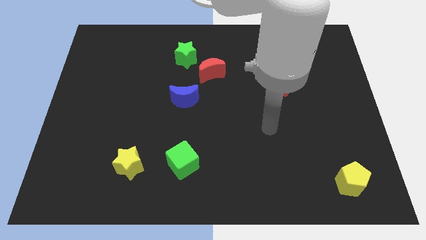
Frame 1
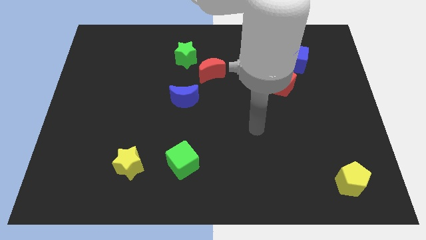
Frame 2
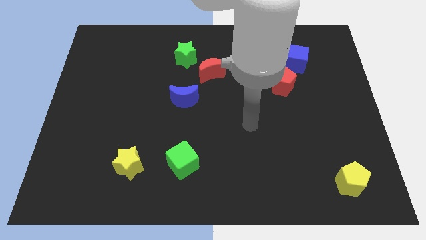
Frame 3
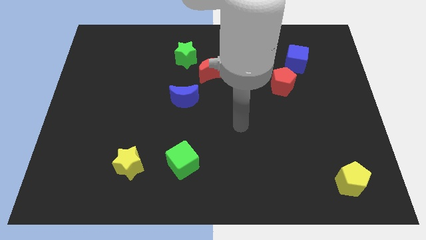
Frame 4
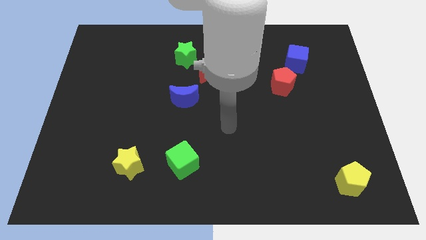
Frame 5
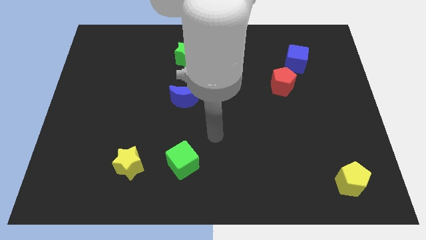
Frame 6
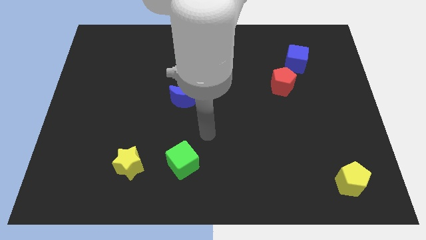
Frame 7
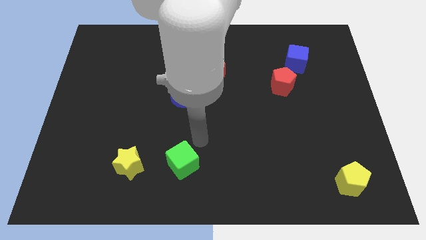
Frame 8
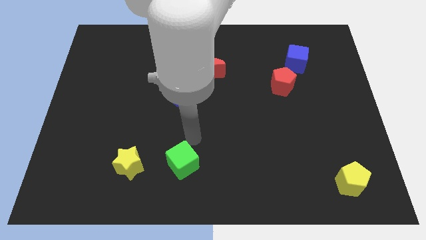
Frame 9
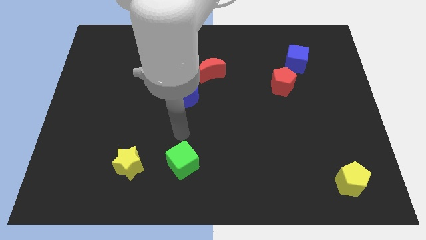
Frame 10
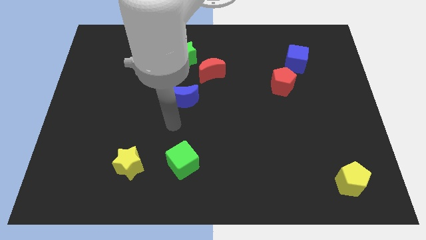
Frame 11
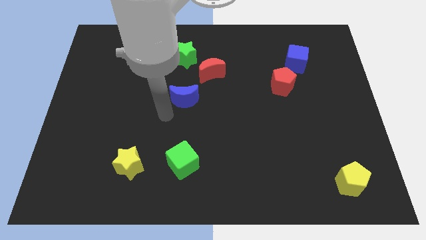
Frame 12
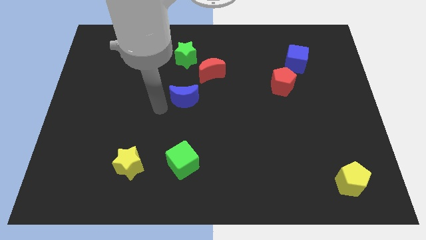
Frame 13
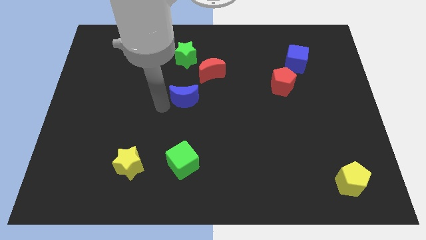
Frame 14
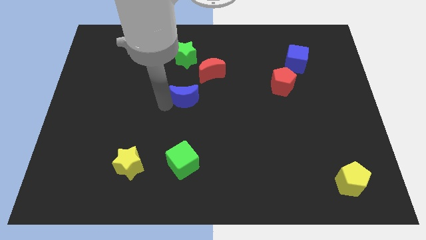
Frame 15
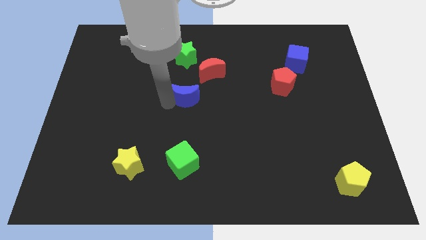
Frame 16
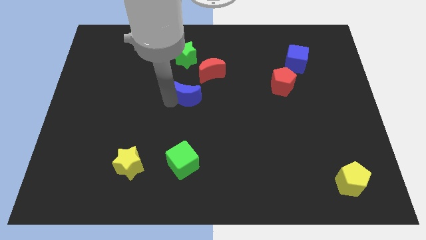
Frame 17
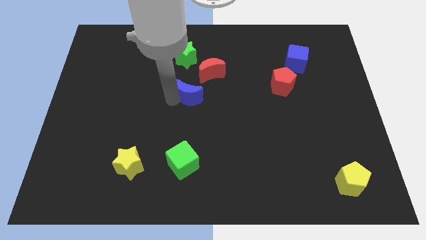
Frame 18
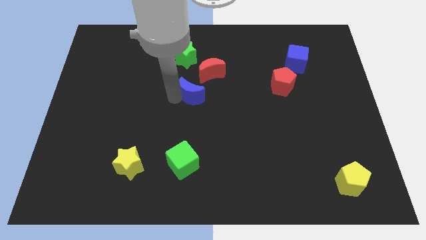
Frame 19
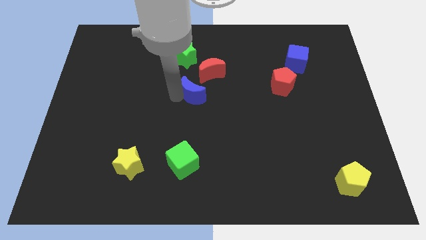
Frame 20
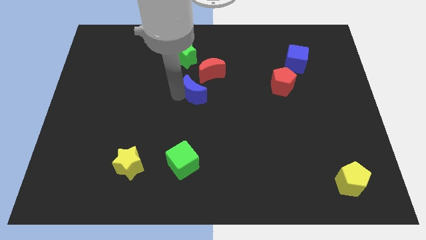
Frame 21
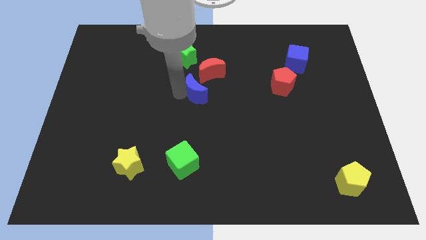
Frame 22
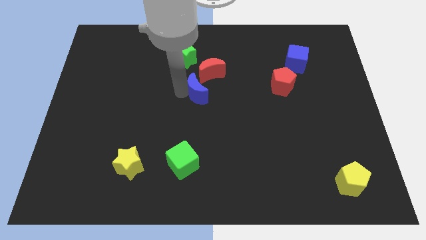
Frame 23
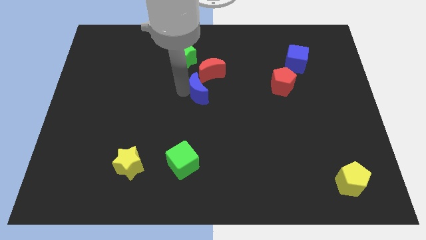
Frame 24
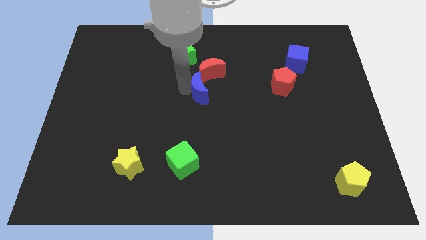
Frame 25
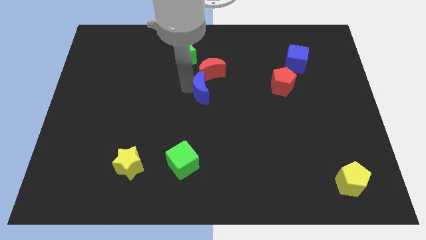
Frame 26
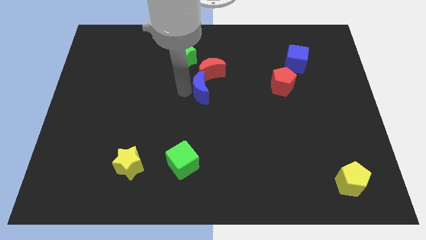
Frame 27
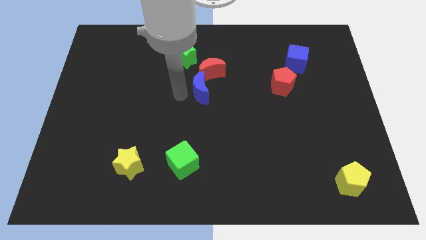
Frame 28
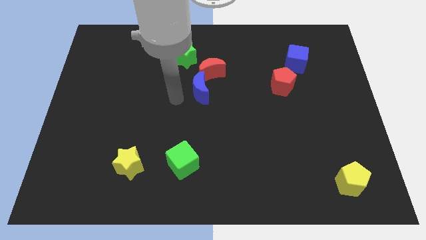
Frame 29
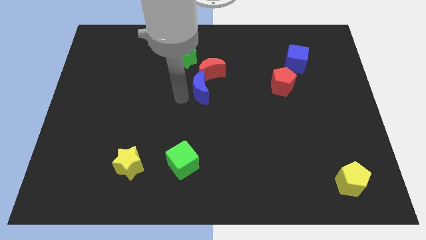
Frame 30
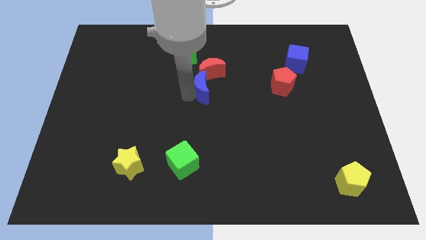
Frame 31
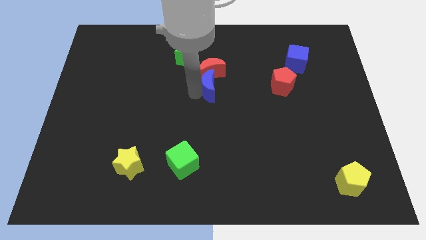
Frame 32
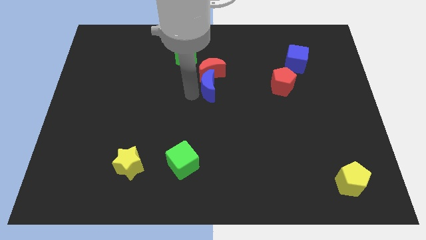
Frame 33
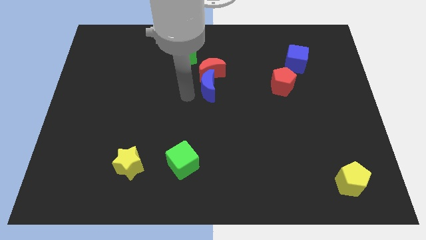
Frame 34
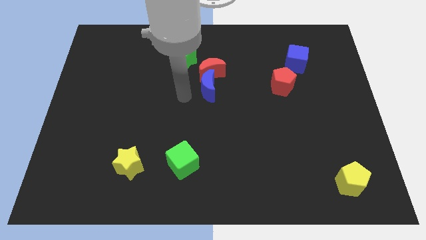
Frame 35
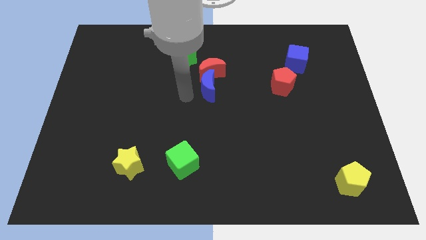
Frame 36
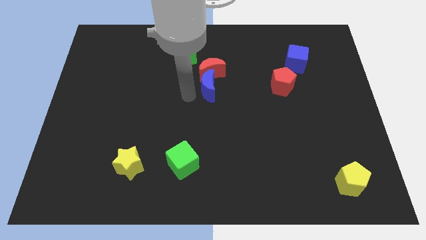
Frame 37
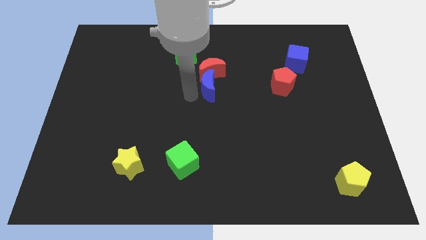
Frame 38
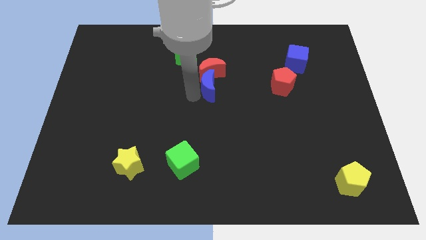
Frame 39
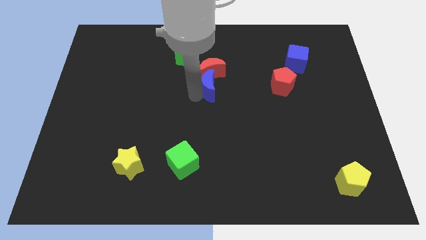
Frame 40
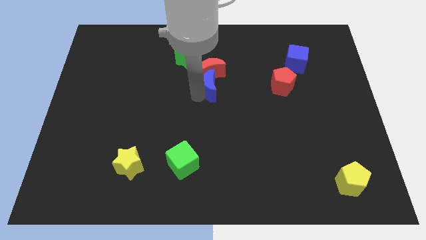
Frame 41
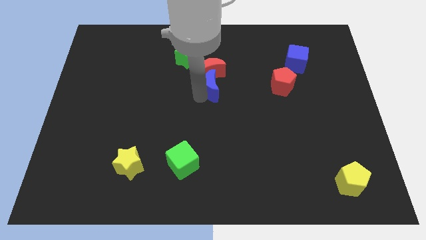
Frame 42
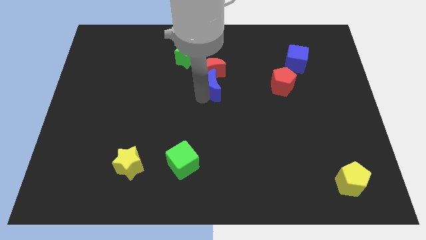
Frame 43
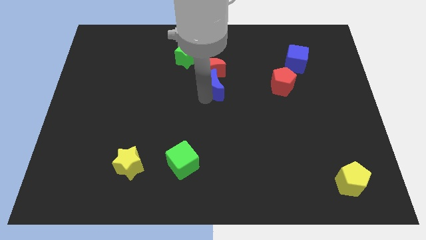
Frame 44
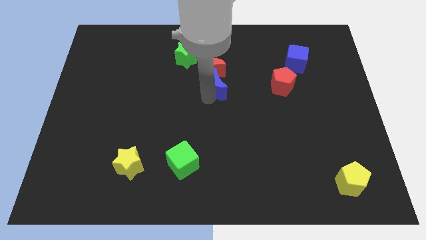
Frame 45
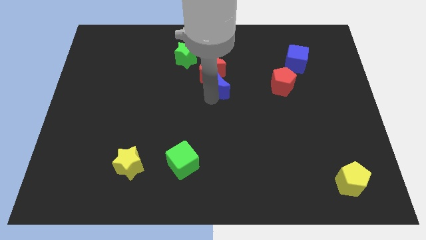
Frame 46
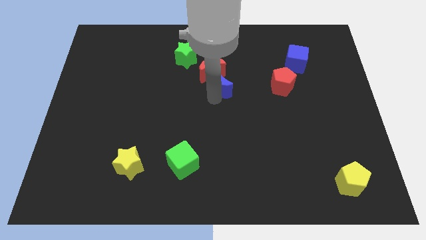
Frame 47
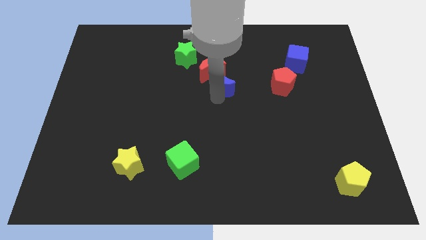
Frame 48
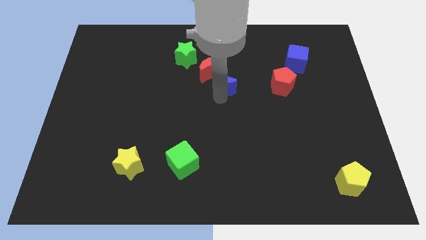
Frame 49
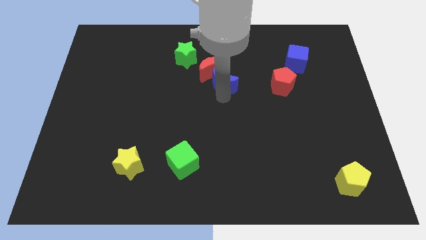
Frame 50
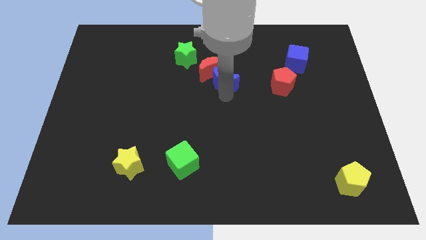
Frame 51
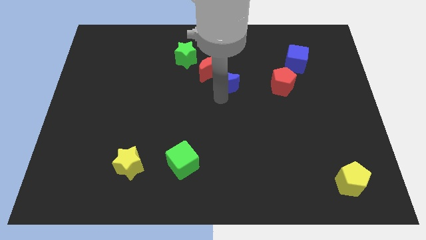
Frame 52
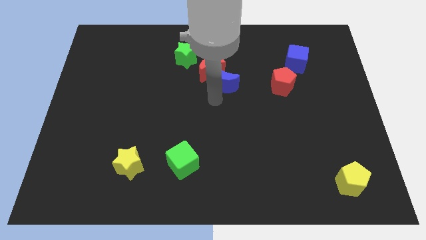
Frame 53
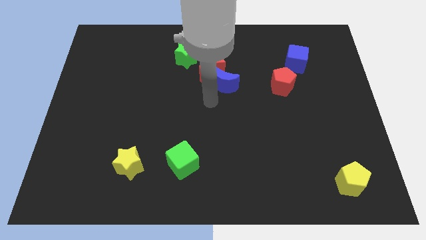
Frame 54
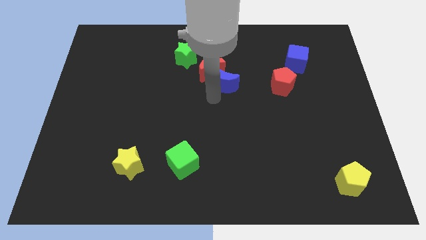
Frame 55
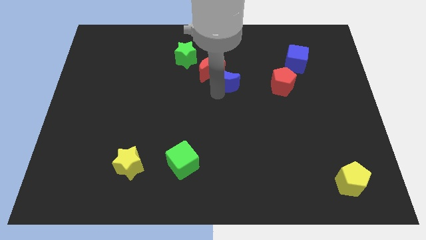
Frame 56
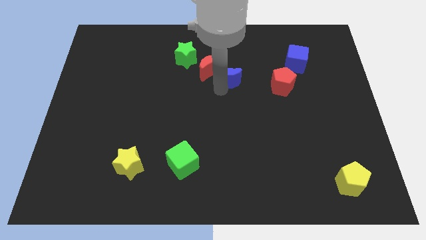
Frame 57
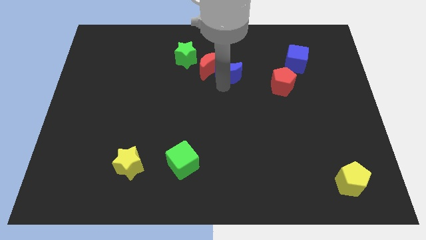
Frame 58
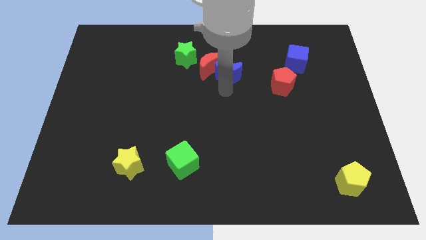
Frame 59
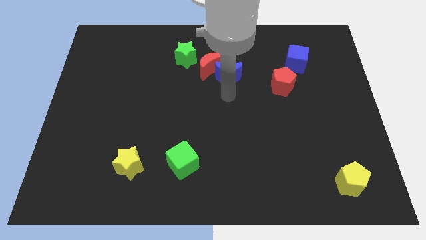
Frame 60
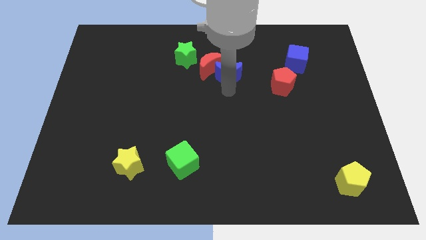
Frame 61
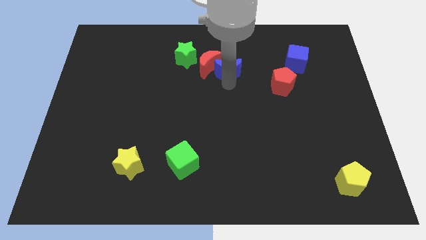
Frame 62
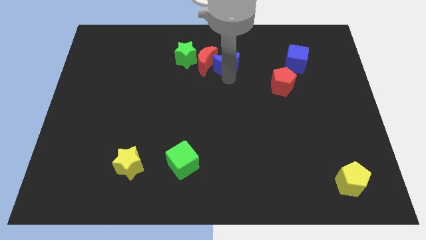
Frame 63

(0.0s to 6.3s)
slide the blue moon to the top right of the red moon
